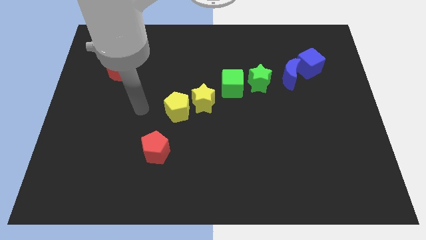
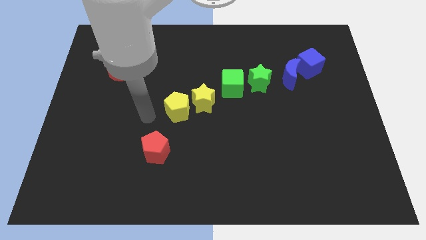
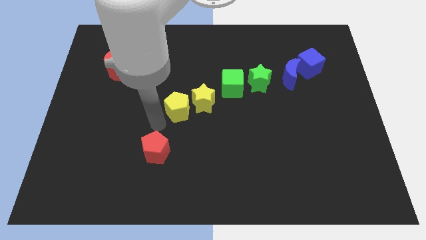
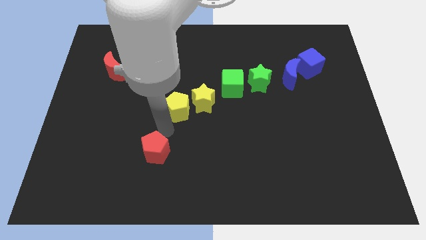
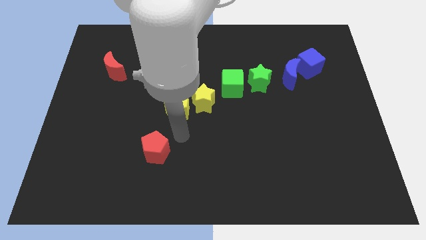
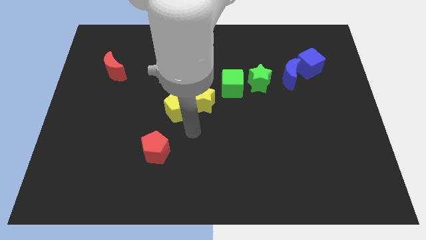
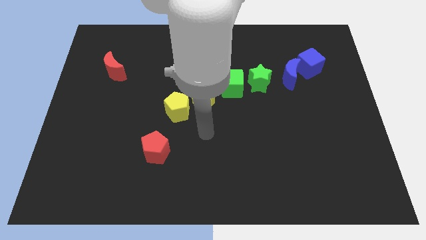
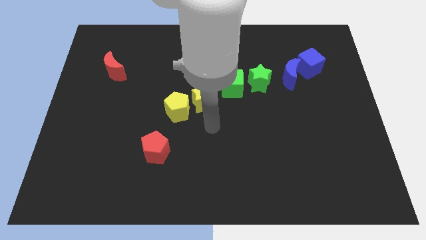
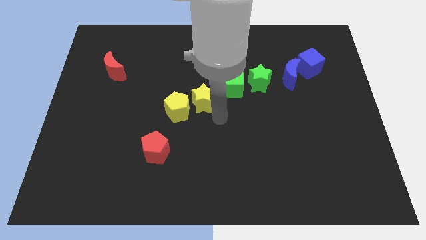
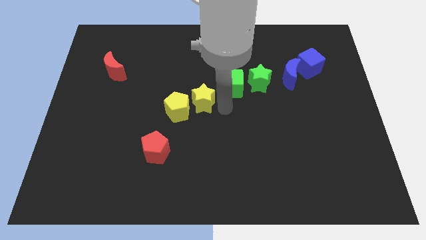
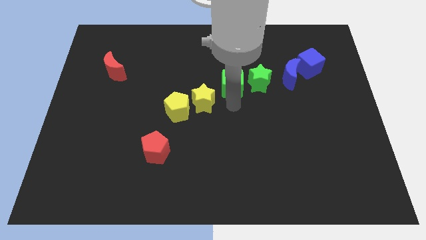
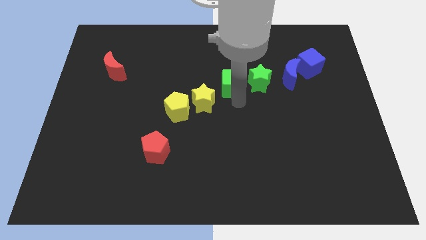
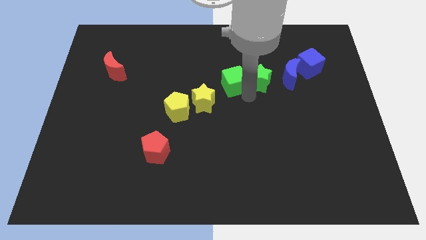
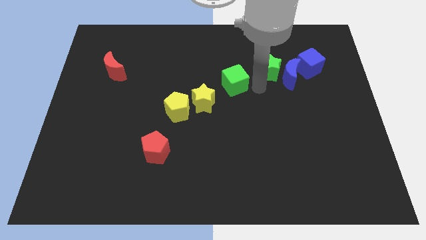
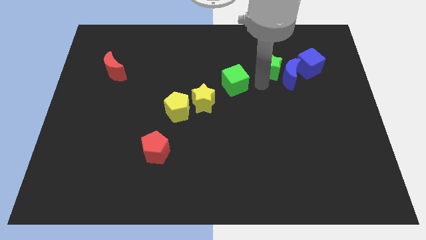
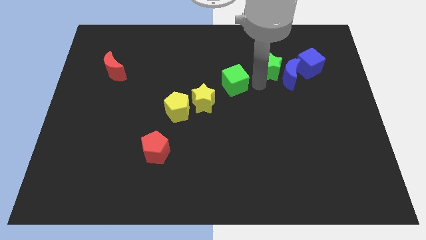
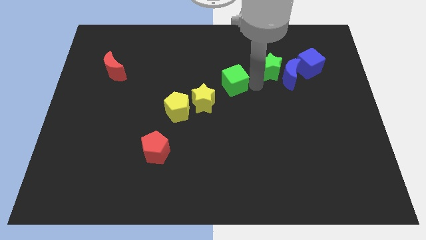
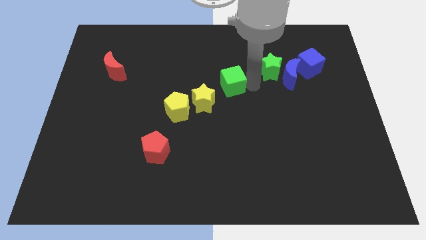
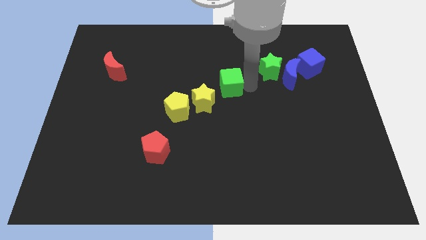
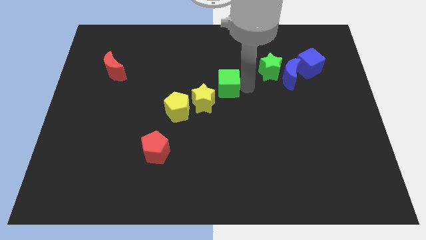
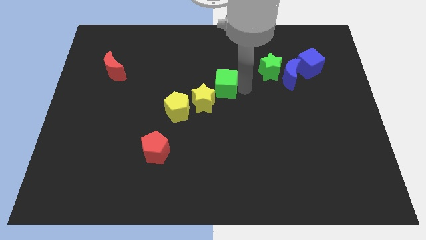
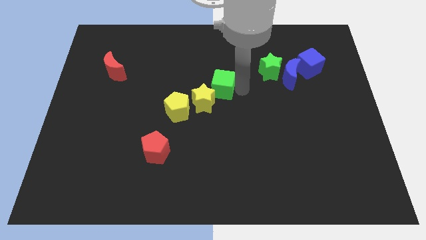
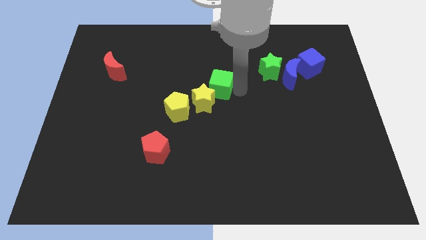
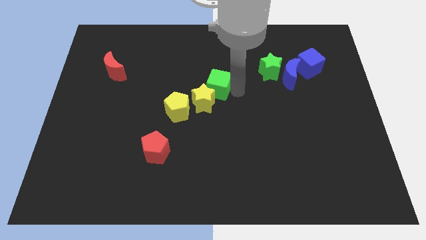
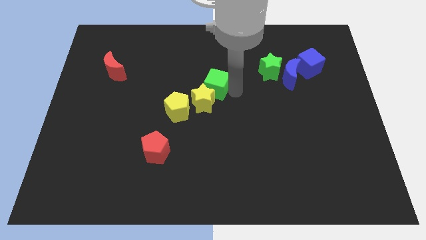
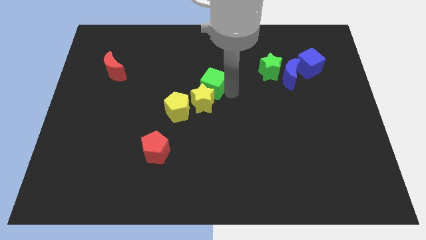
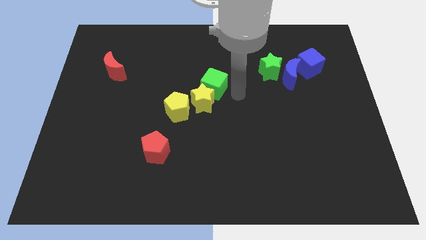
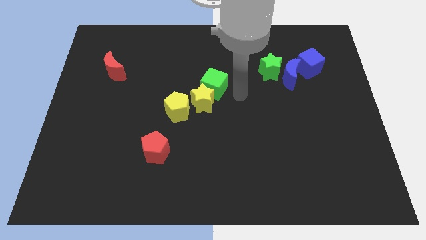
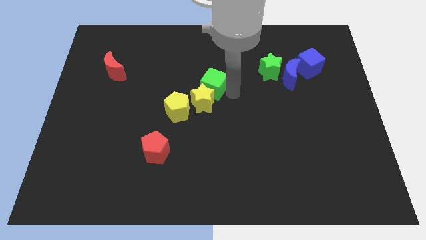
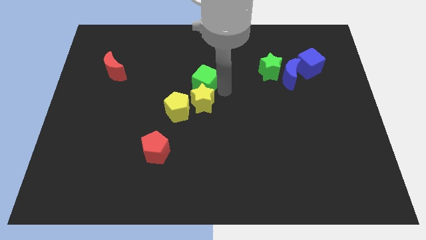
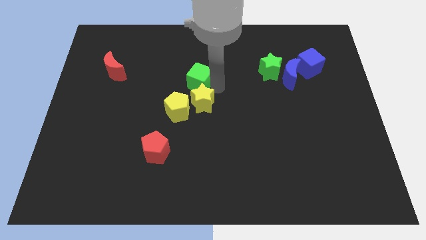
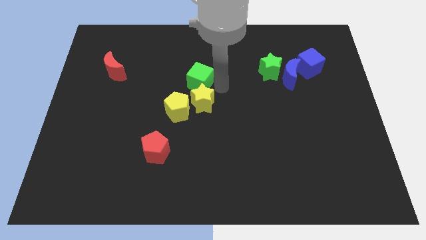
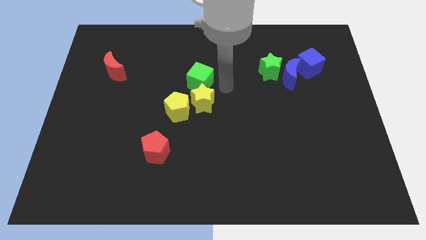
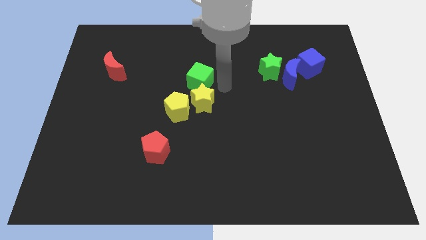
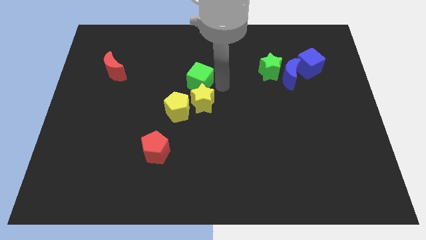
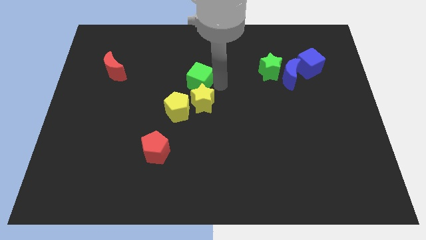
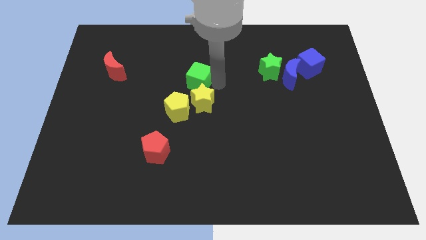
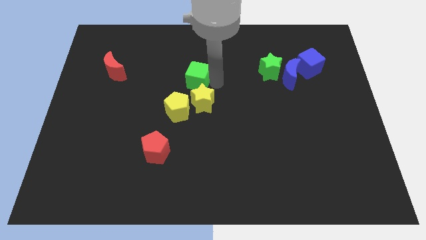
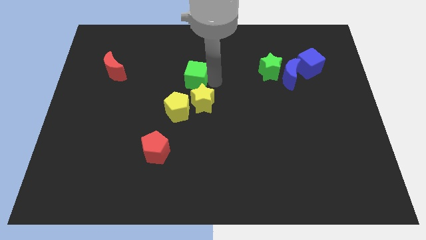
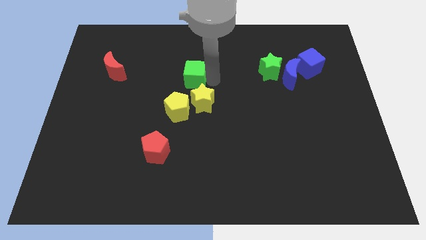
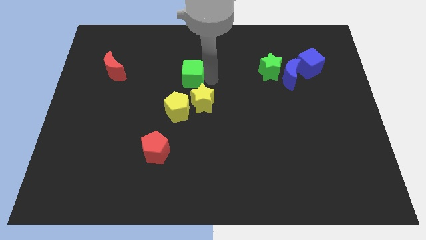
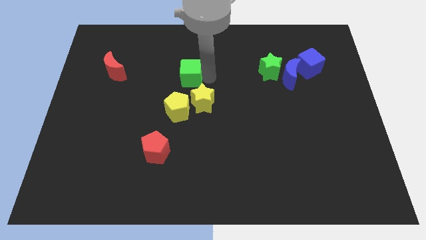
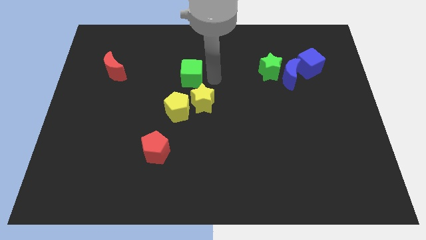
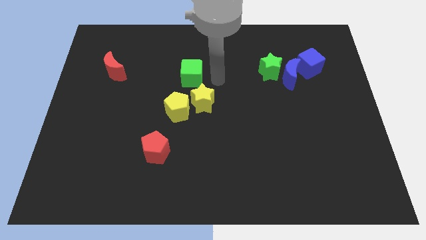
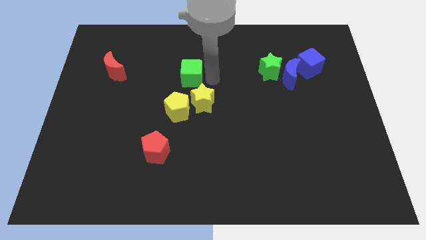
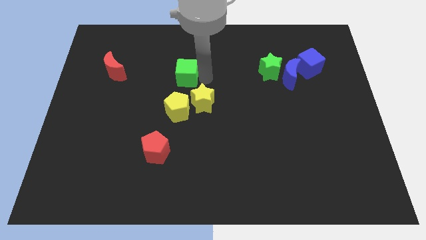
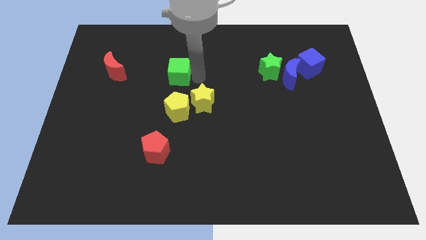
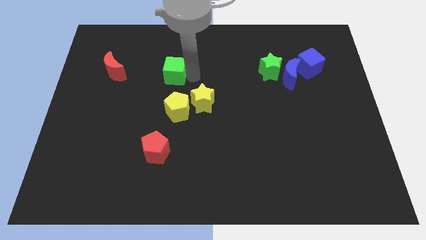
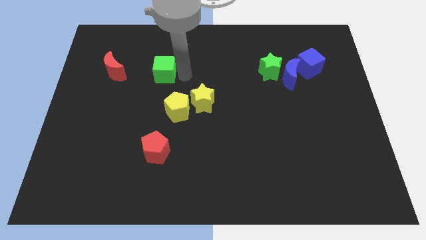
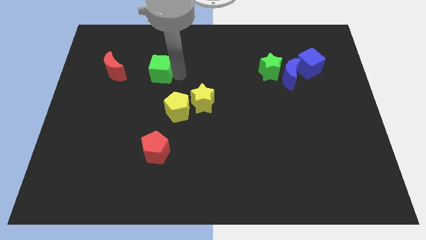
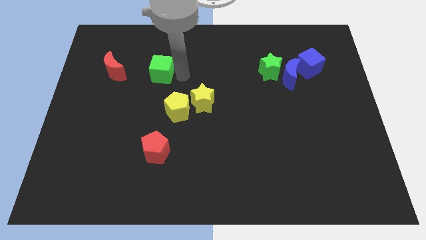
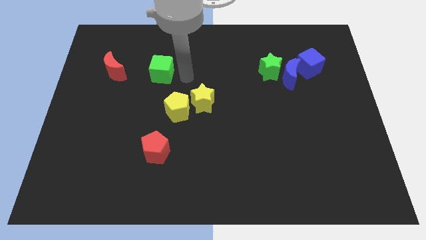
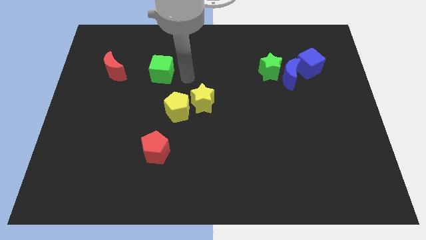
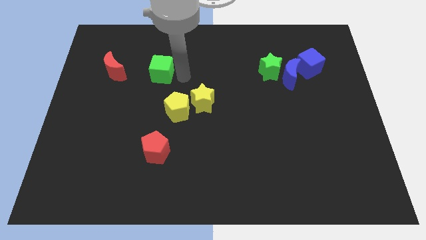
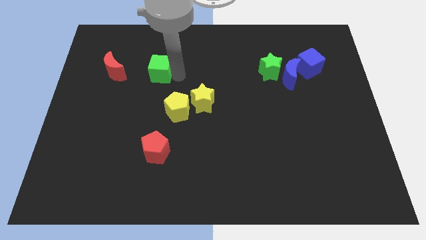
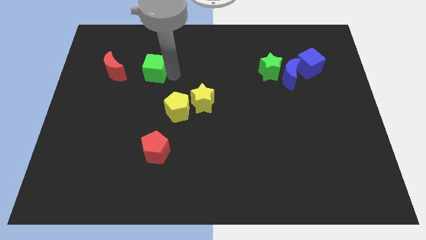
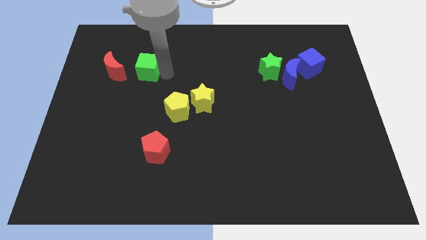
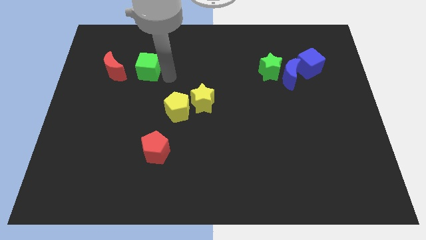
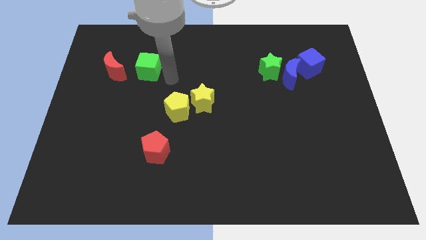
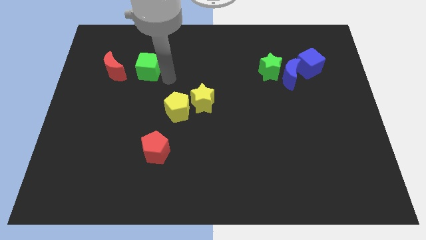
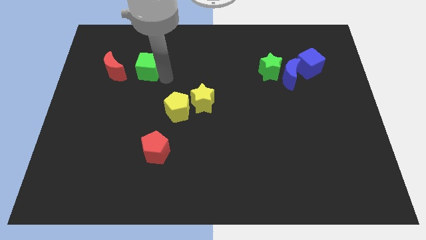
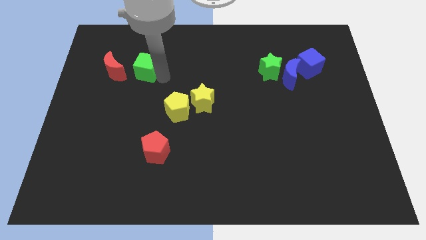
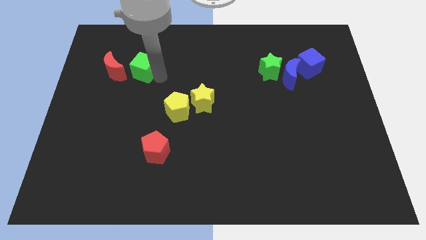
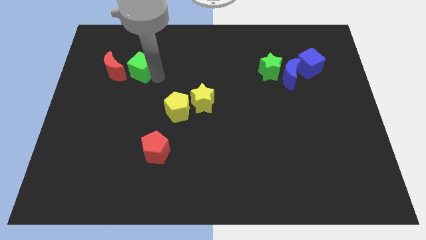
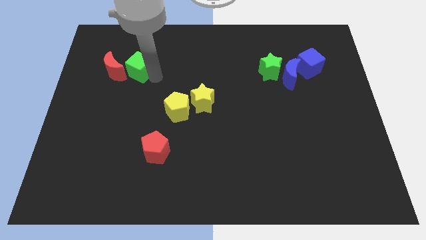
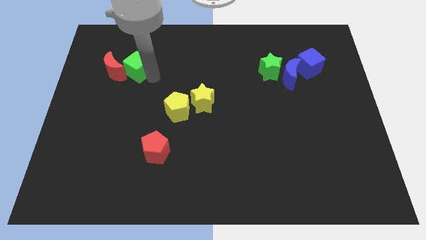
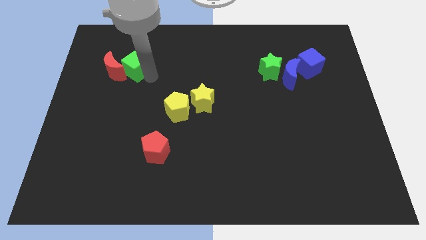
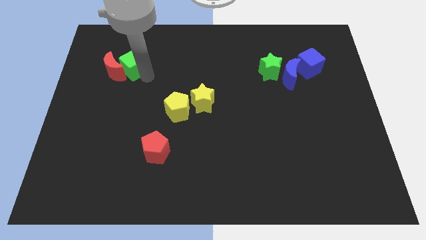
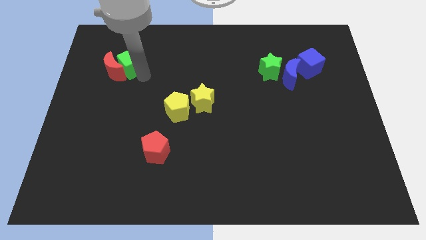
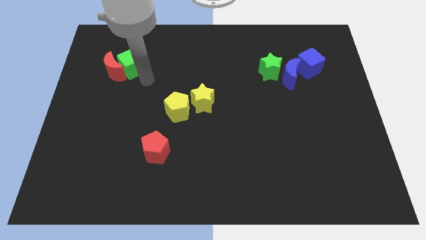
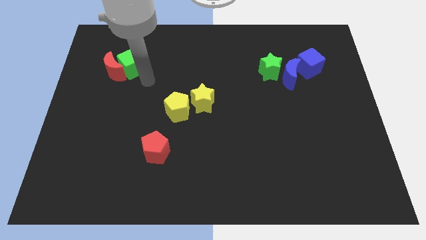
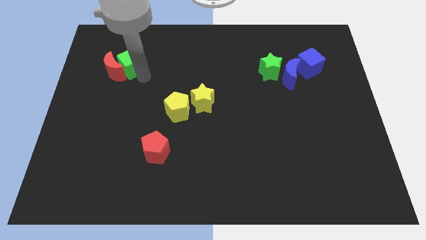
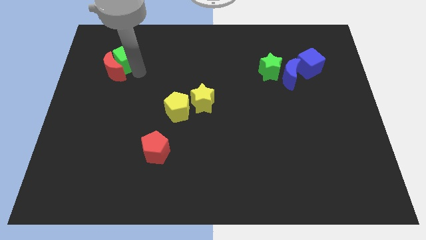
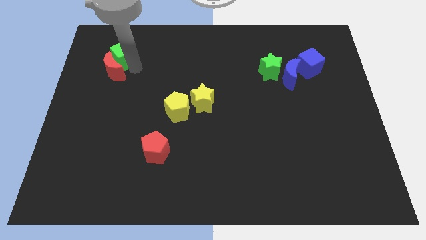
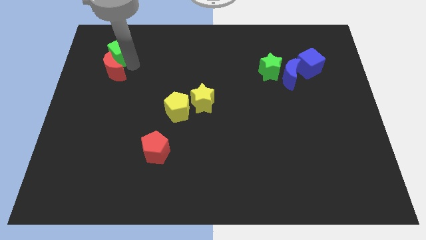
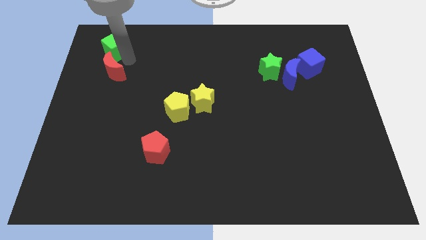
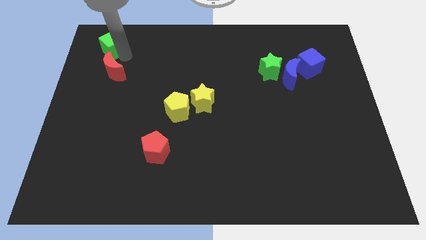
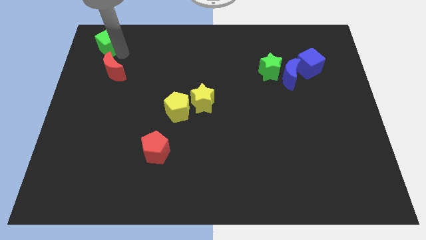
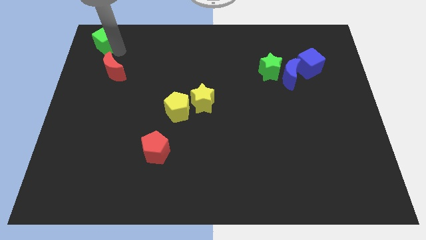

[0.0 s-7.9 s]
put the green cube to the upper left corner
